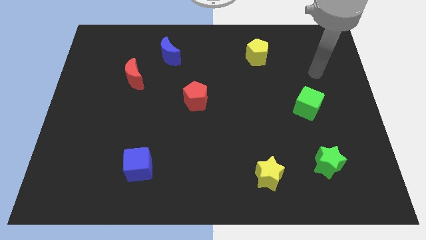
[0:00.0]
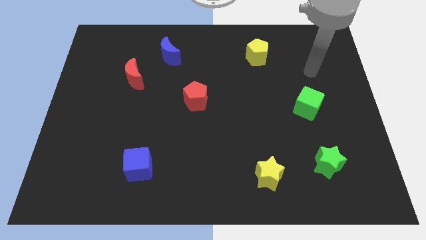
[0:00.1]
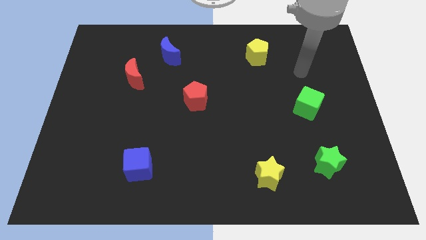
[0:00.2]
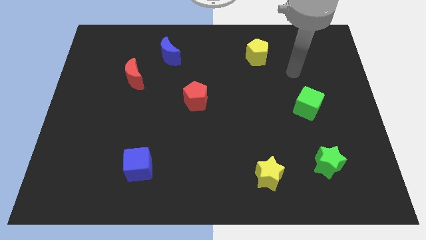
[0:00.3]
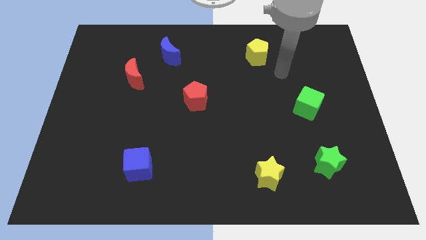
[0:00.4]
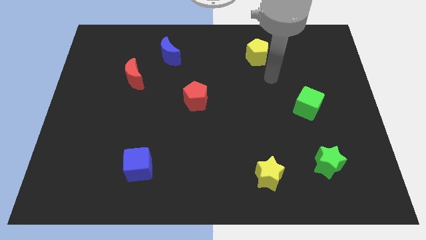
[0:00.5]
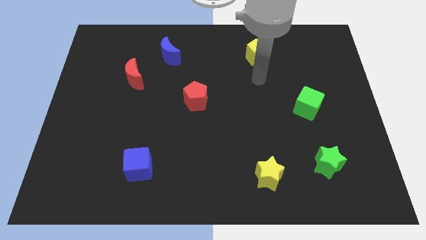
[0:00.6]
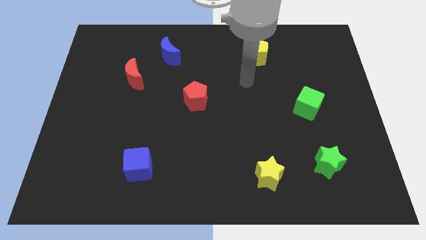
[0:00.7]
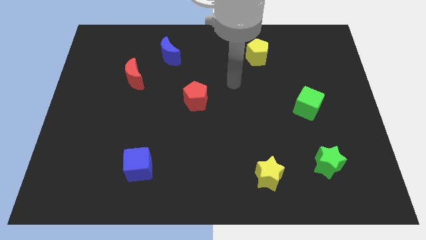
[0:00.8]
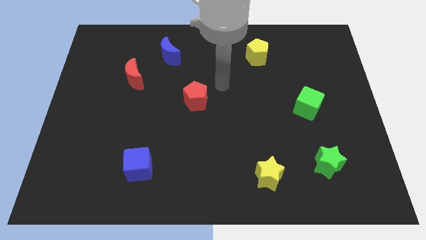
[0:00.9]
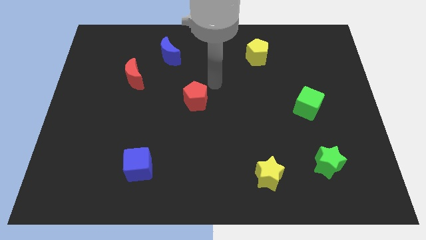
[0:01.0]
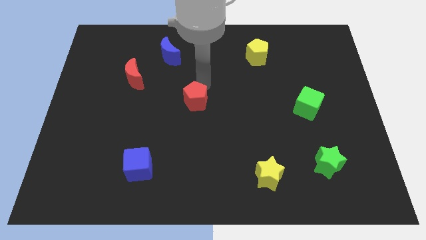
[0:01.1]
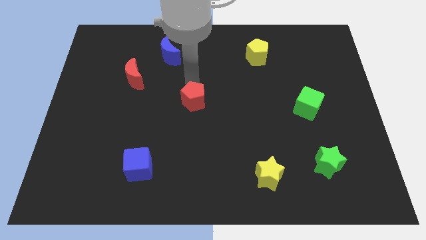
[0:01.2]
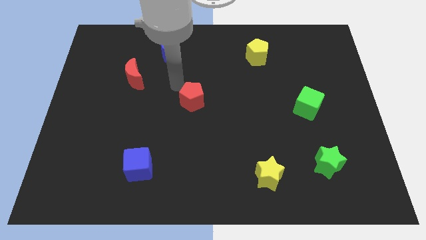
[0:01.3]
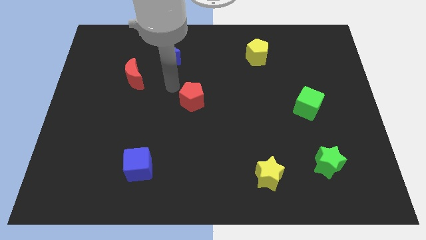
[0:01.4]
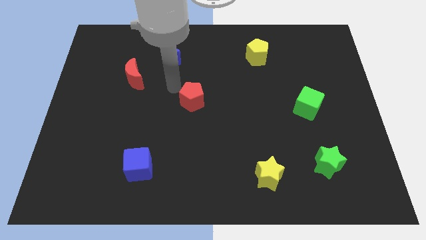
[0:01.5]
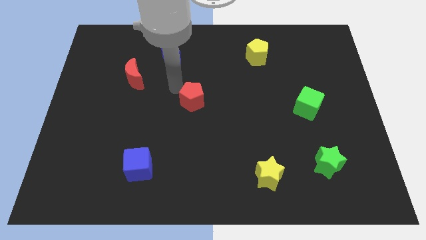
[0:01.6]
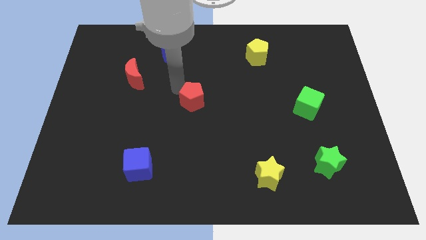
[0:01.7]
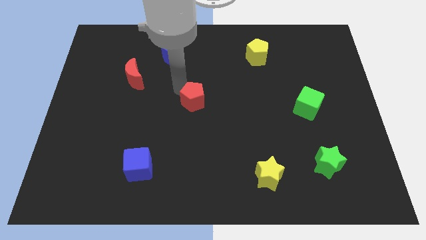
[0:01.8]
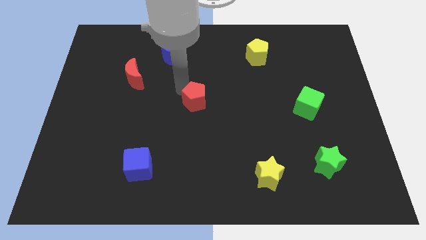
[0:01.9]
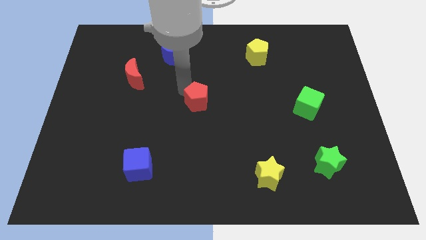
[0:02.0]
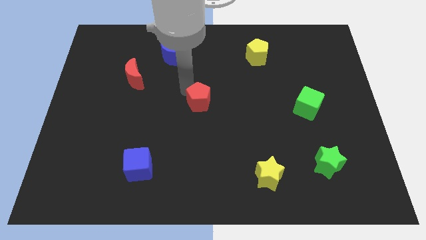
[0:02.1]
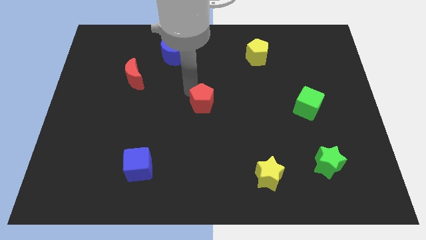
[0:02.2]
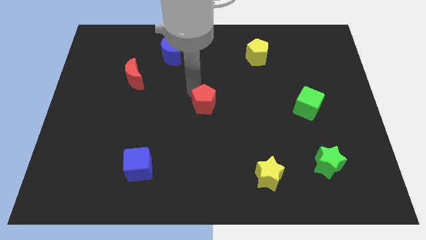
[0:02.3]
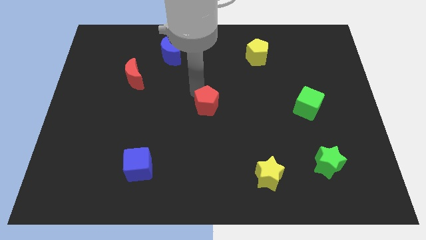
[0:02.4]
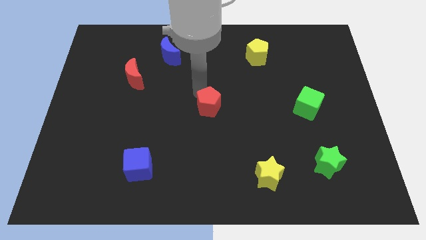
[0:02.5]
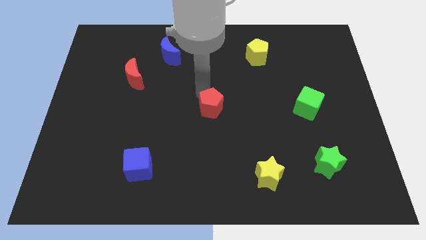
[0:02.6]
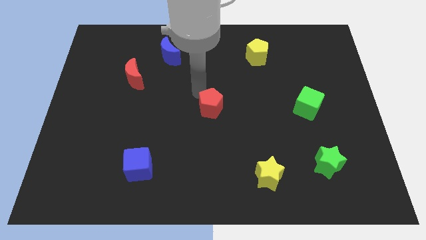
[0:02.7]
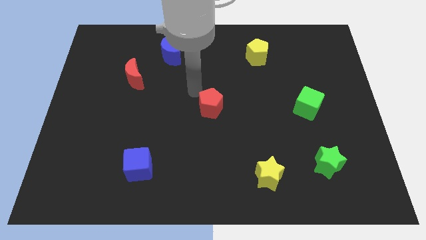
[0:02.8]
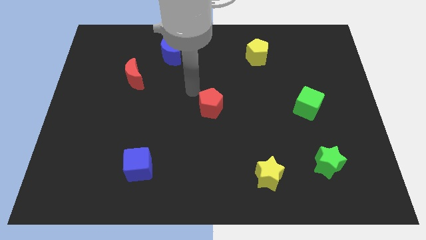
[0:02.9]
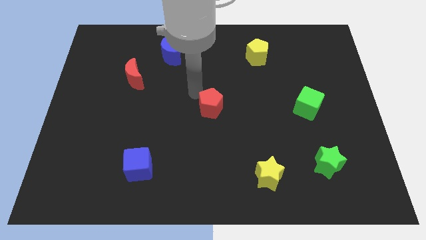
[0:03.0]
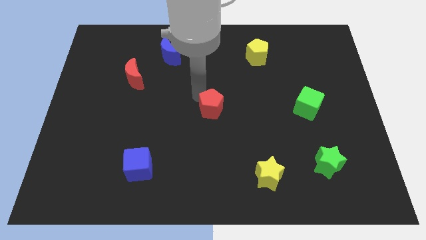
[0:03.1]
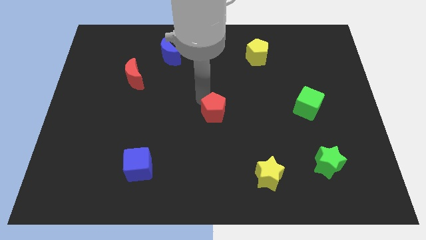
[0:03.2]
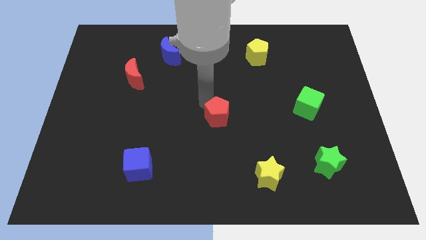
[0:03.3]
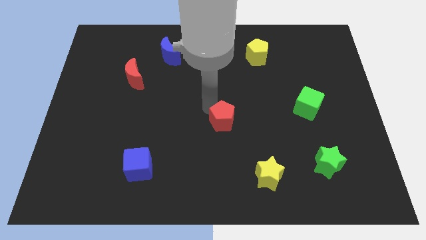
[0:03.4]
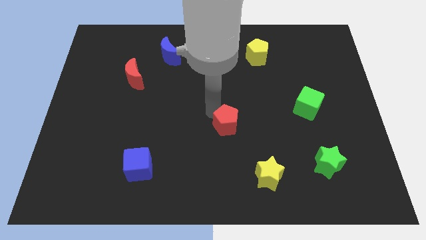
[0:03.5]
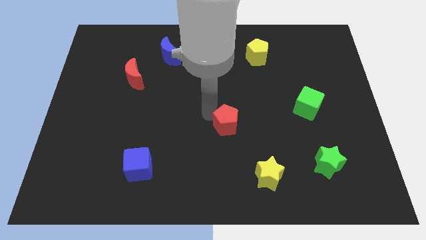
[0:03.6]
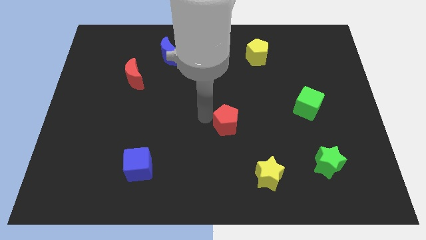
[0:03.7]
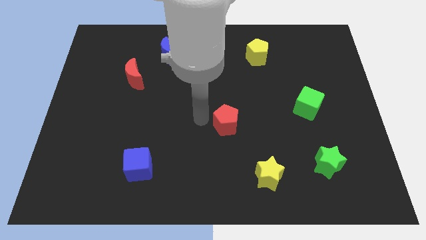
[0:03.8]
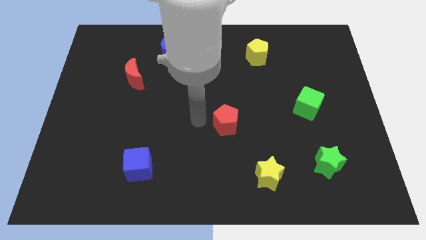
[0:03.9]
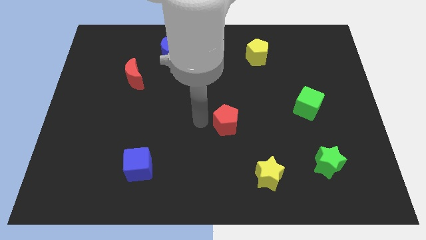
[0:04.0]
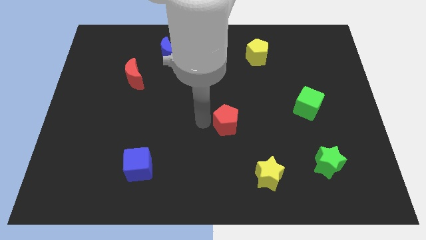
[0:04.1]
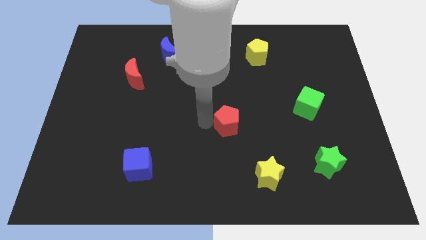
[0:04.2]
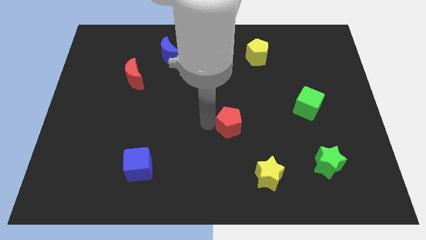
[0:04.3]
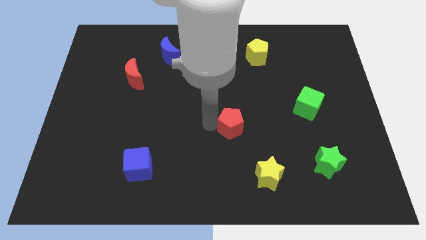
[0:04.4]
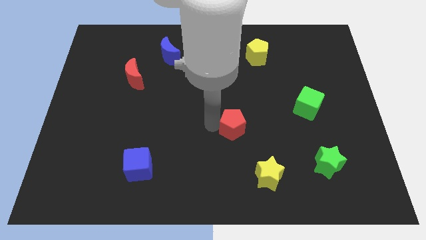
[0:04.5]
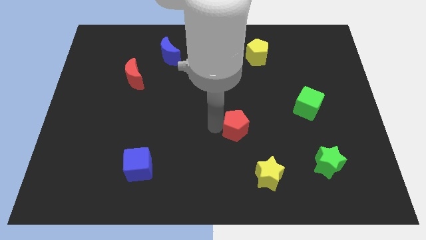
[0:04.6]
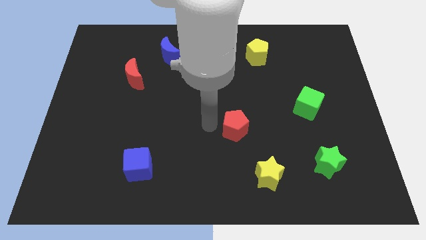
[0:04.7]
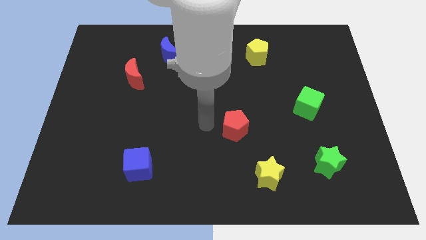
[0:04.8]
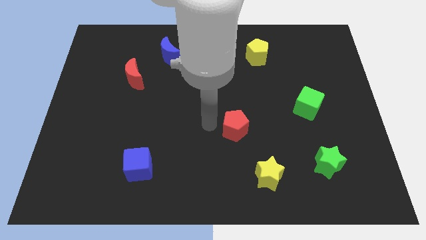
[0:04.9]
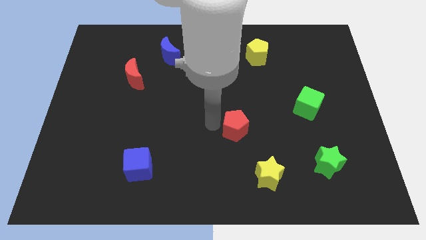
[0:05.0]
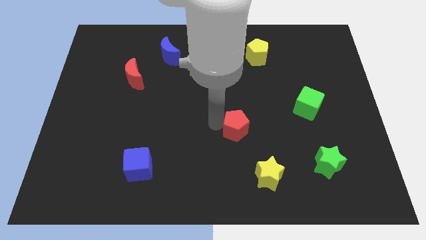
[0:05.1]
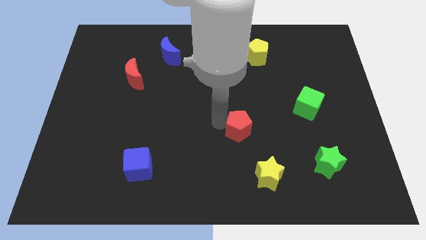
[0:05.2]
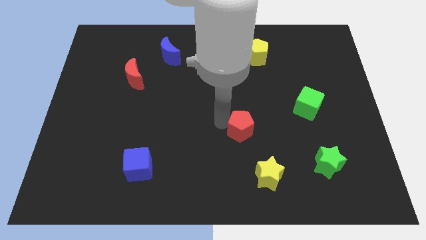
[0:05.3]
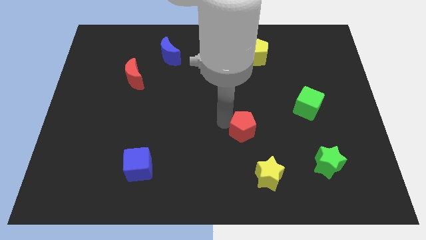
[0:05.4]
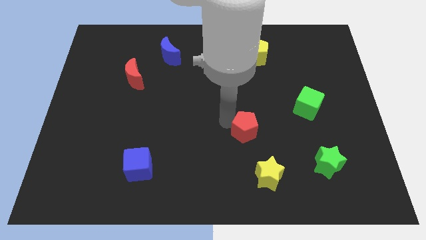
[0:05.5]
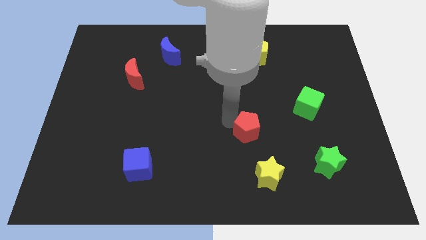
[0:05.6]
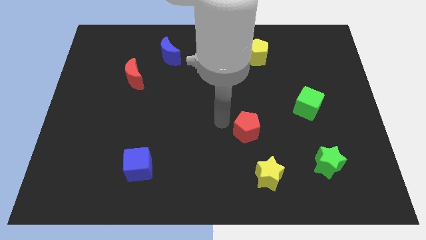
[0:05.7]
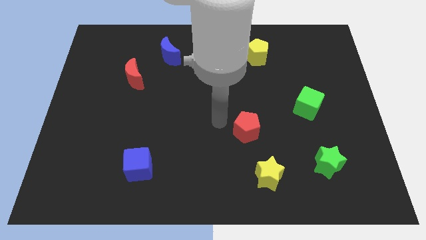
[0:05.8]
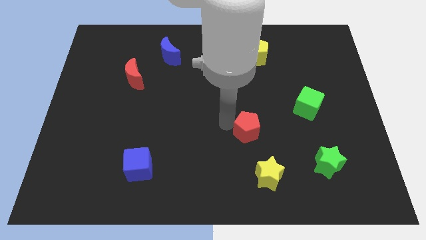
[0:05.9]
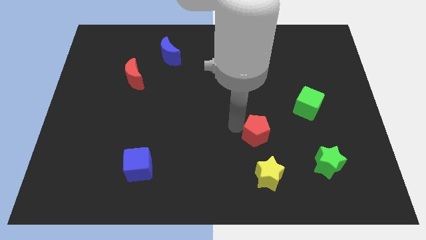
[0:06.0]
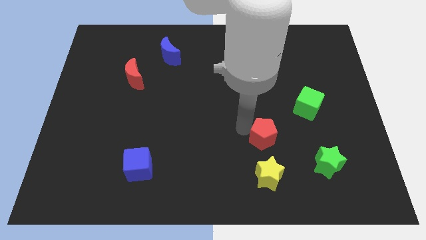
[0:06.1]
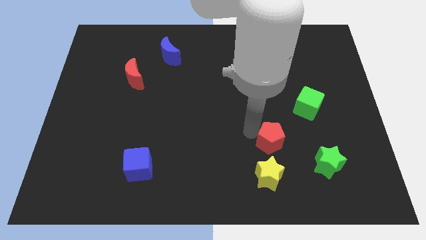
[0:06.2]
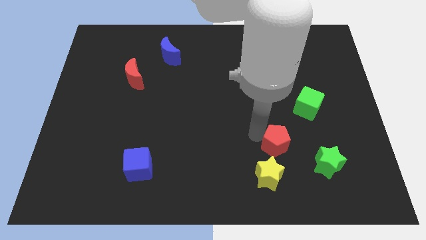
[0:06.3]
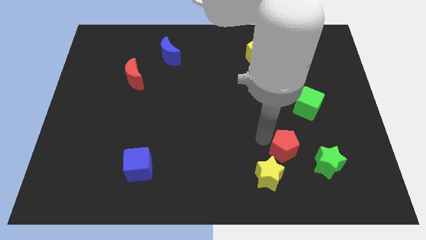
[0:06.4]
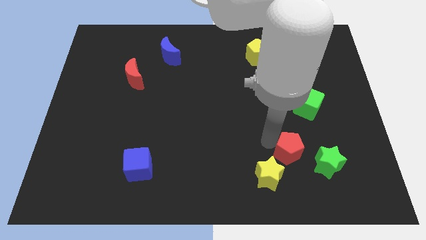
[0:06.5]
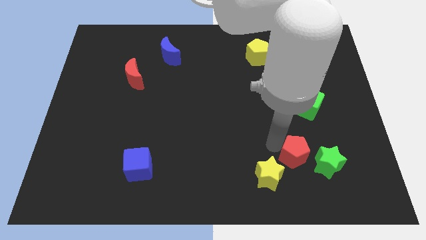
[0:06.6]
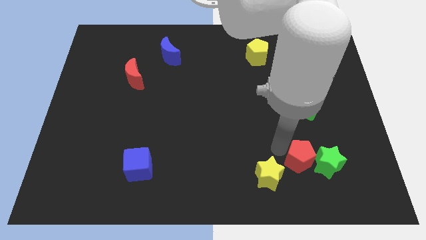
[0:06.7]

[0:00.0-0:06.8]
put the red pentagon to the green star
